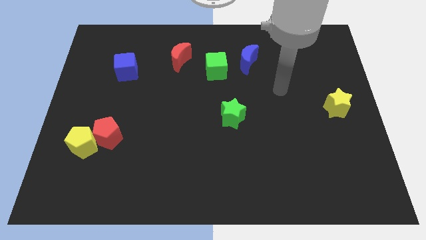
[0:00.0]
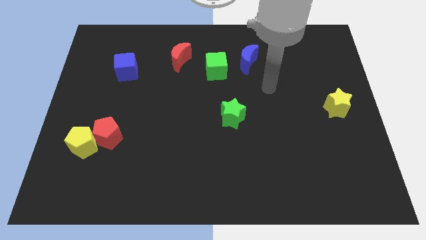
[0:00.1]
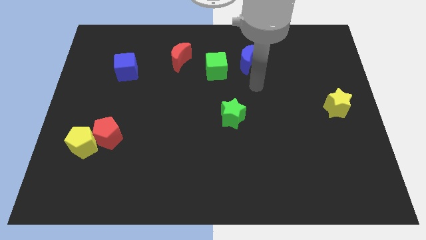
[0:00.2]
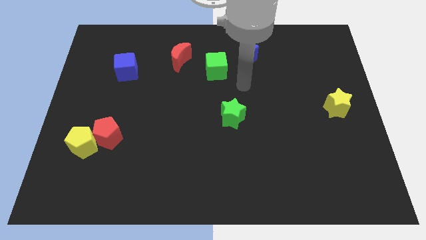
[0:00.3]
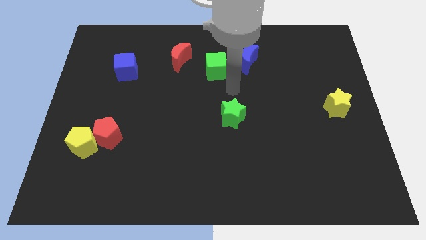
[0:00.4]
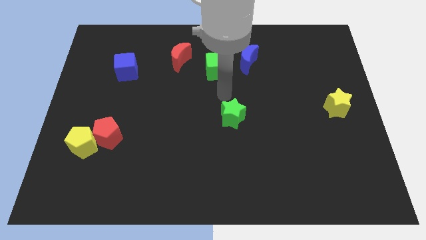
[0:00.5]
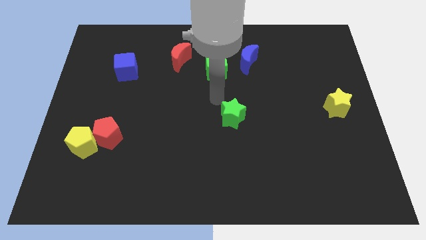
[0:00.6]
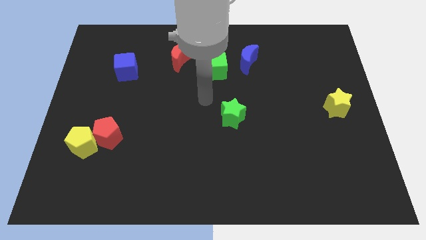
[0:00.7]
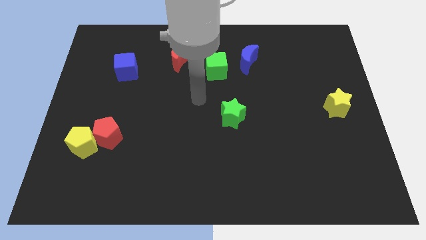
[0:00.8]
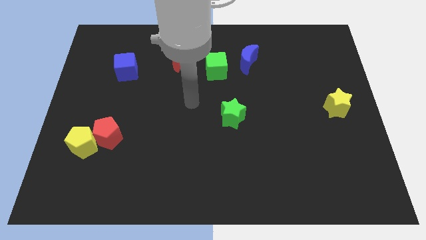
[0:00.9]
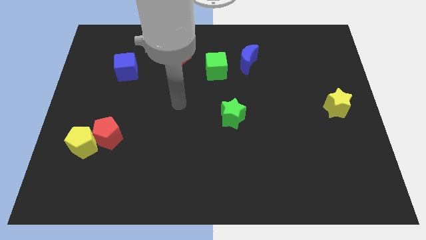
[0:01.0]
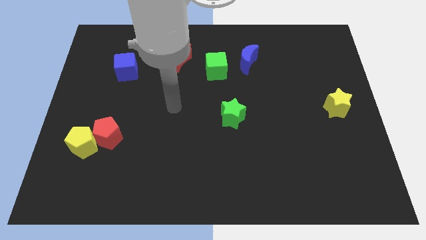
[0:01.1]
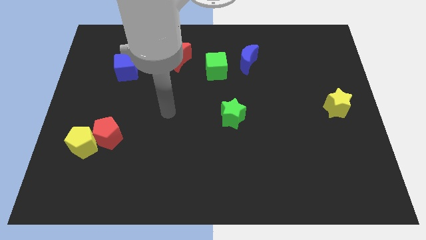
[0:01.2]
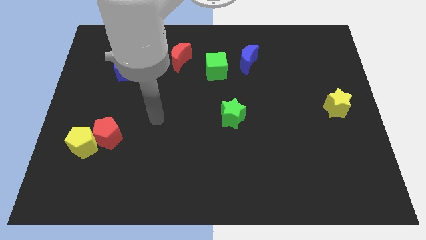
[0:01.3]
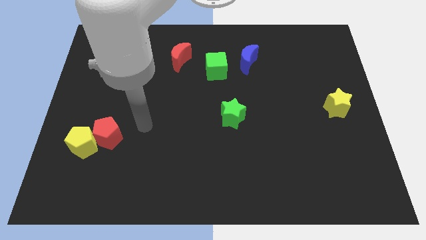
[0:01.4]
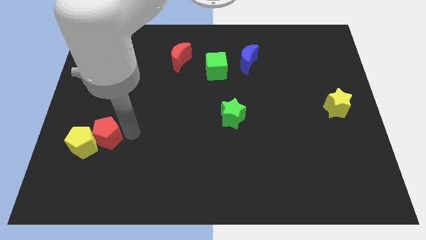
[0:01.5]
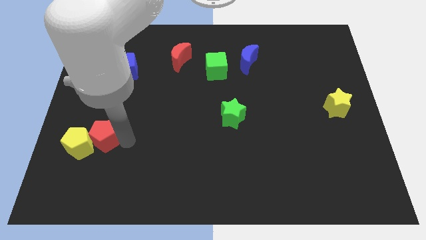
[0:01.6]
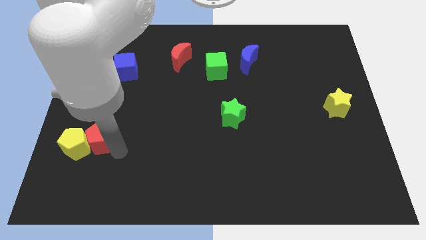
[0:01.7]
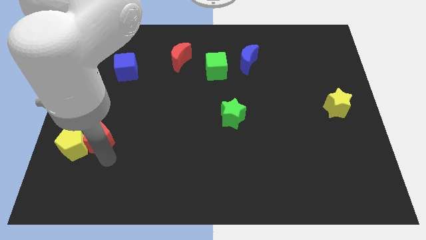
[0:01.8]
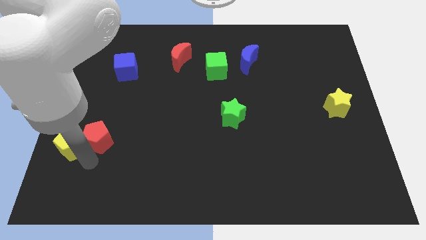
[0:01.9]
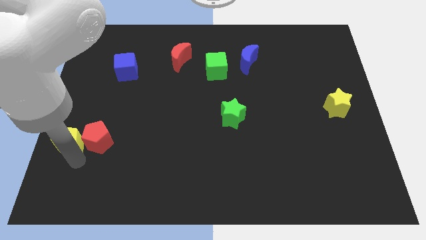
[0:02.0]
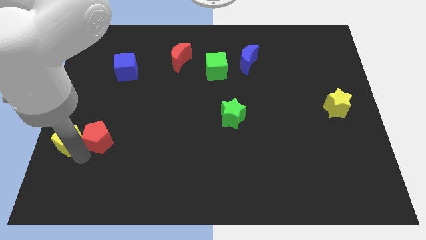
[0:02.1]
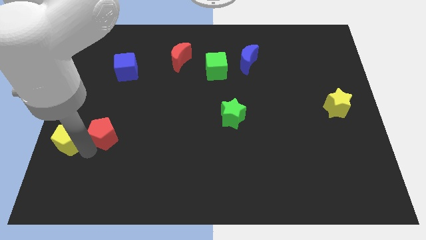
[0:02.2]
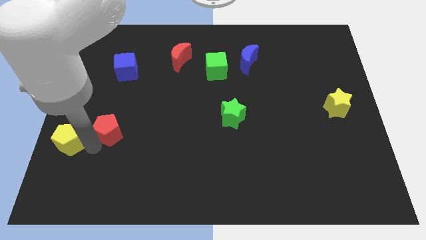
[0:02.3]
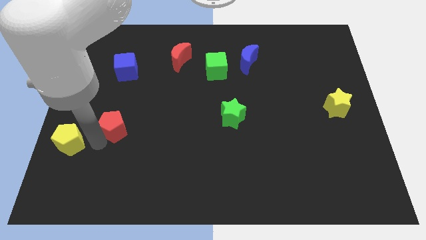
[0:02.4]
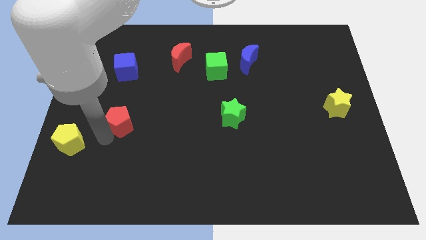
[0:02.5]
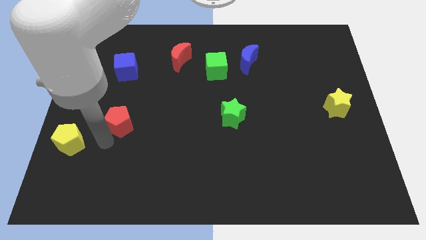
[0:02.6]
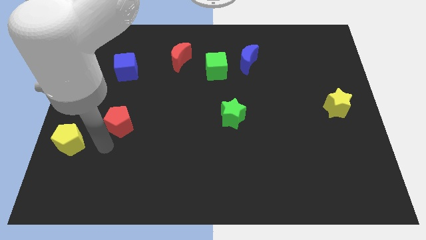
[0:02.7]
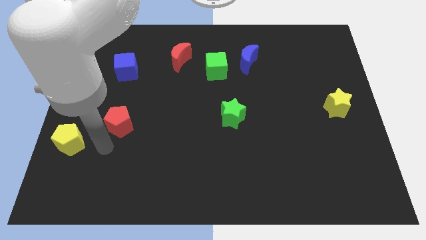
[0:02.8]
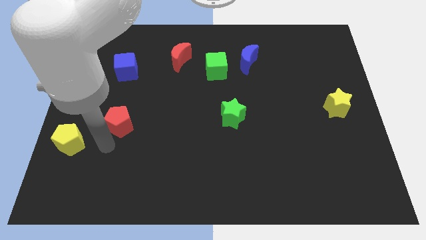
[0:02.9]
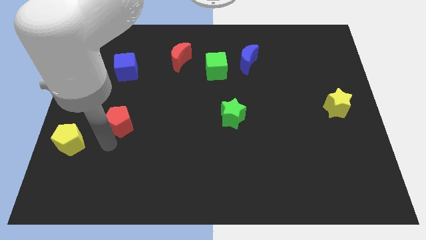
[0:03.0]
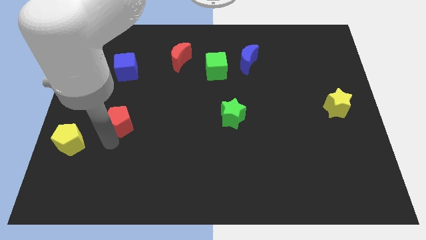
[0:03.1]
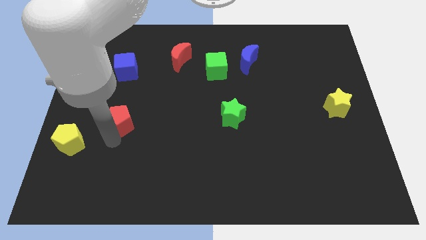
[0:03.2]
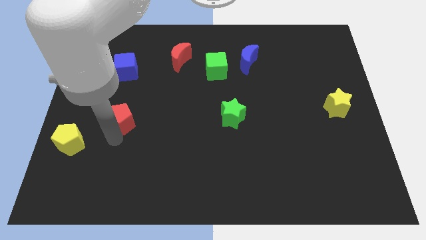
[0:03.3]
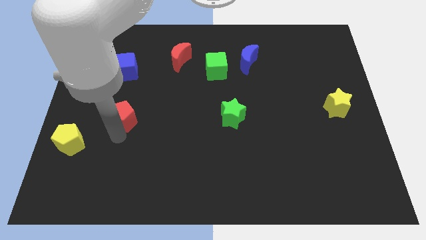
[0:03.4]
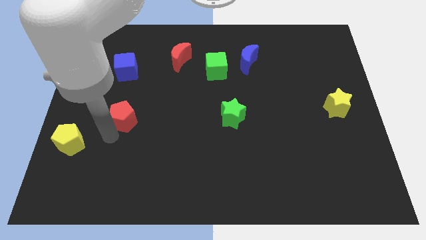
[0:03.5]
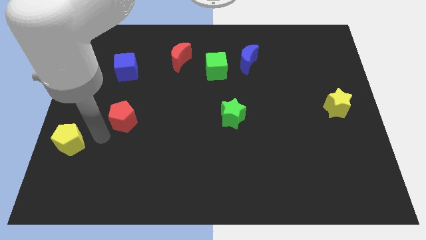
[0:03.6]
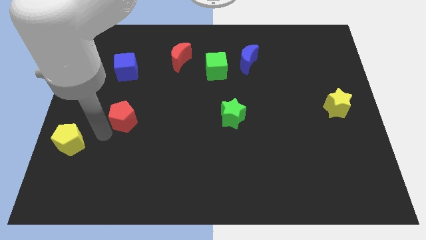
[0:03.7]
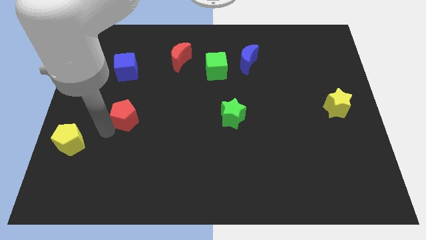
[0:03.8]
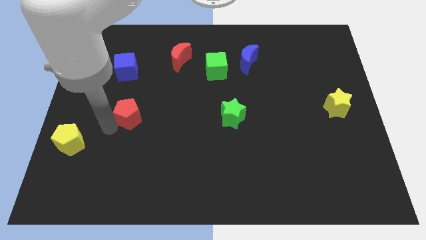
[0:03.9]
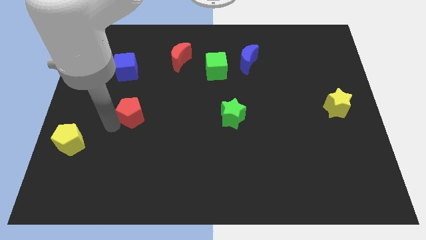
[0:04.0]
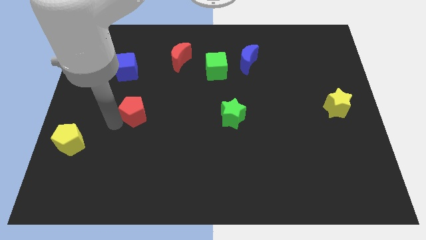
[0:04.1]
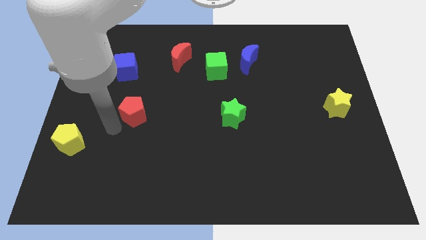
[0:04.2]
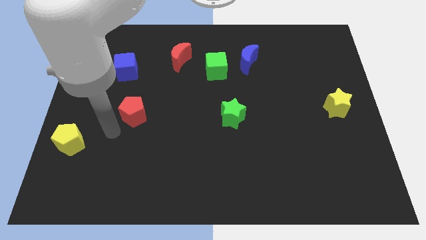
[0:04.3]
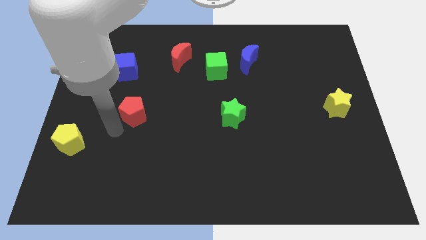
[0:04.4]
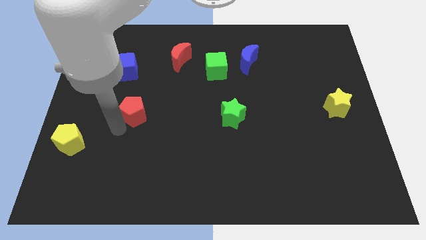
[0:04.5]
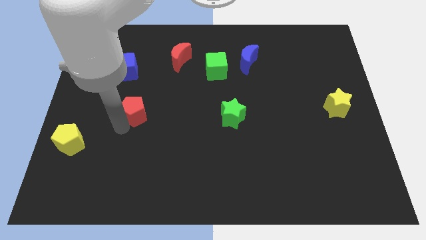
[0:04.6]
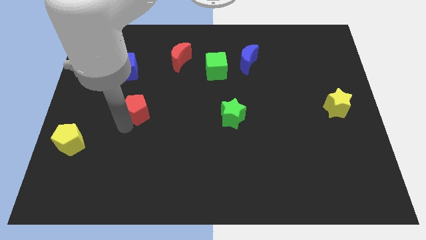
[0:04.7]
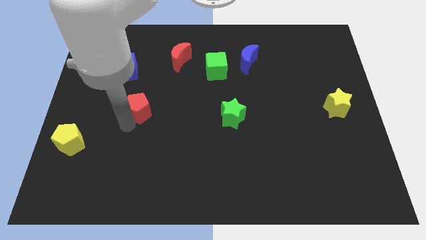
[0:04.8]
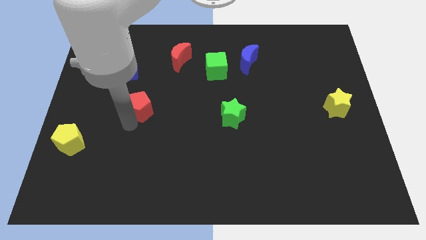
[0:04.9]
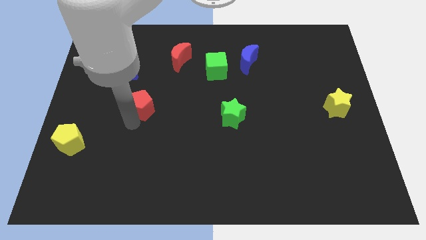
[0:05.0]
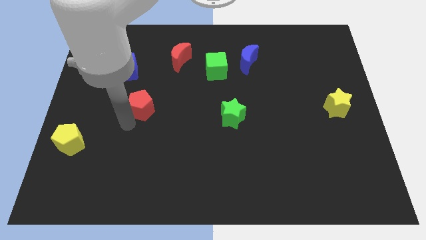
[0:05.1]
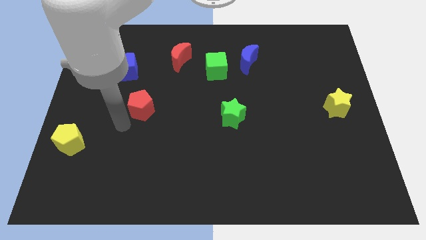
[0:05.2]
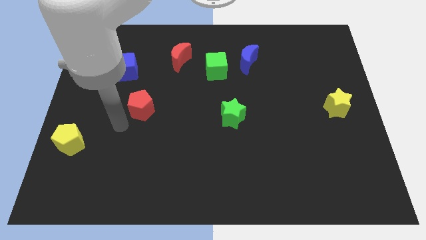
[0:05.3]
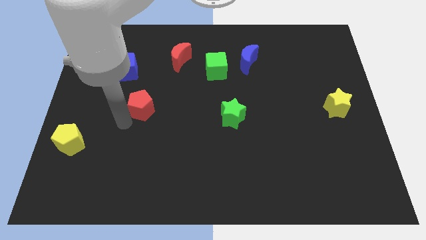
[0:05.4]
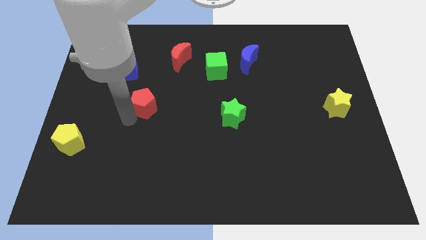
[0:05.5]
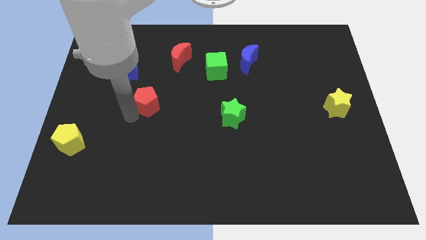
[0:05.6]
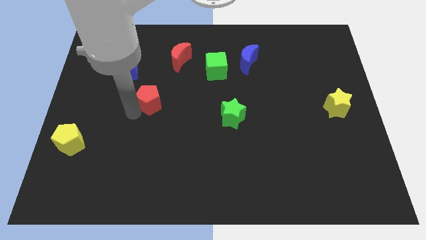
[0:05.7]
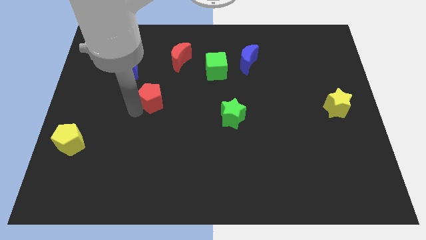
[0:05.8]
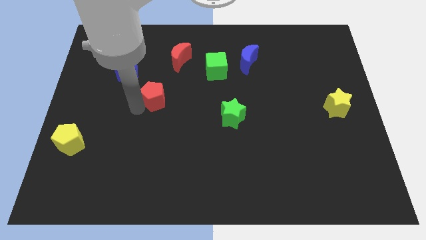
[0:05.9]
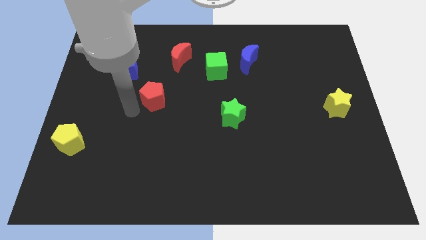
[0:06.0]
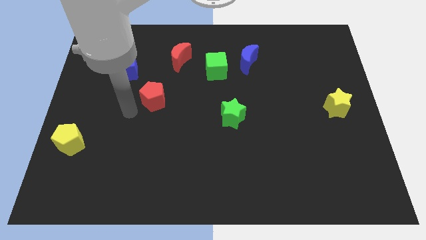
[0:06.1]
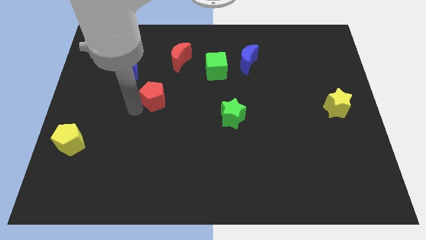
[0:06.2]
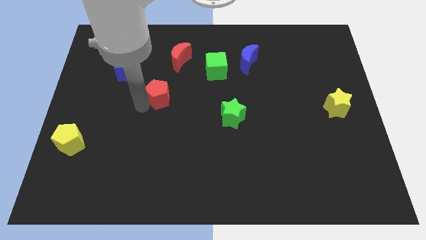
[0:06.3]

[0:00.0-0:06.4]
slide the red pentagon to the bottom side of the red moon

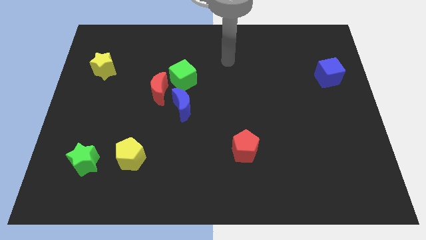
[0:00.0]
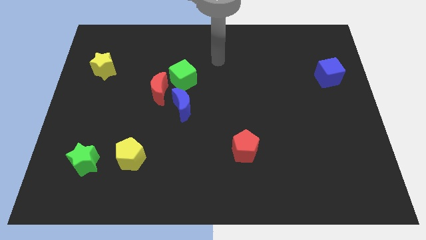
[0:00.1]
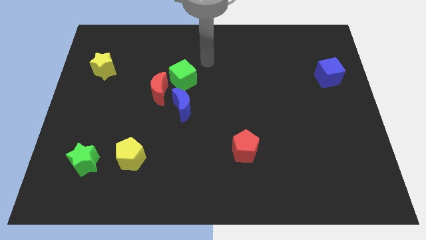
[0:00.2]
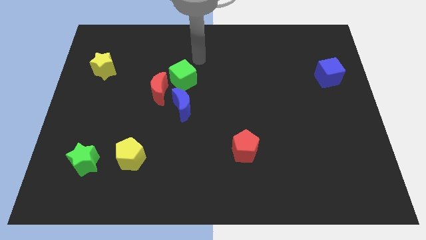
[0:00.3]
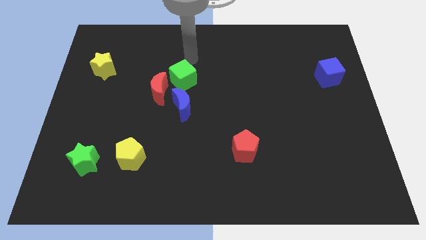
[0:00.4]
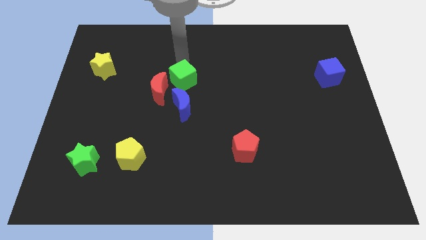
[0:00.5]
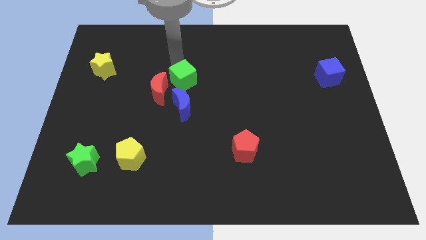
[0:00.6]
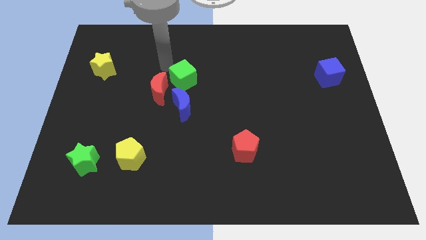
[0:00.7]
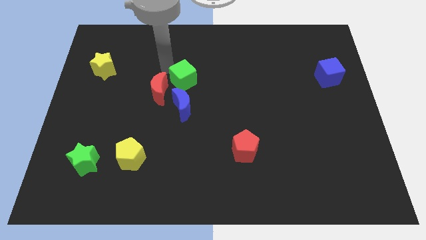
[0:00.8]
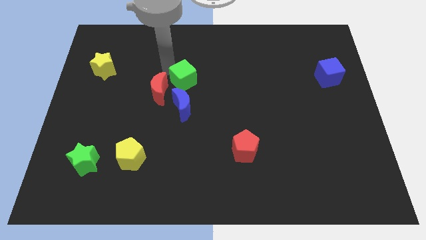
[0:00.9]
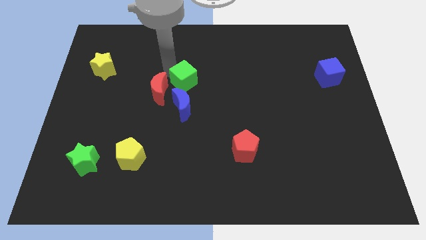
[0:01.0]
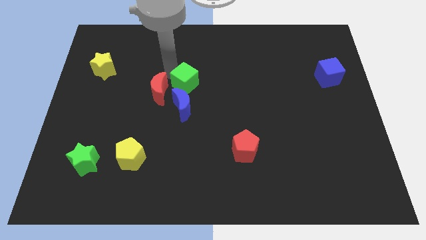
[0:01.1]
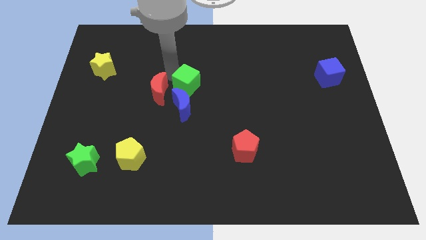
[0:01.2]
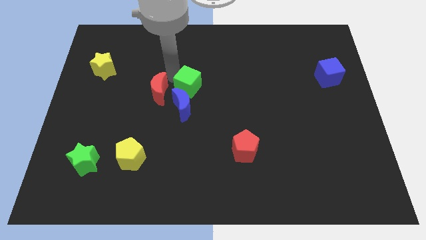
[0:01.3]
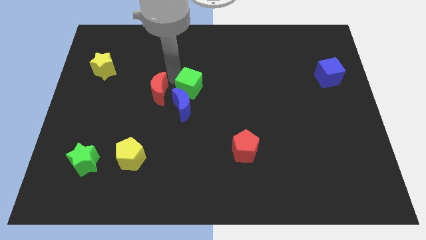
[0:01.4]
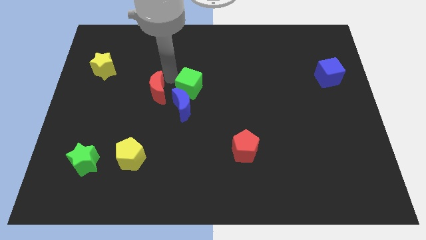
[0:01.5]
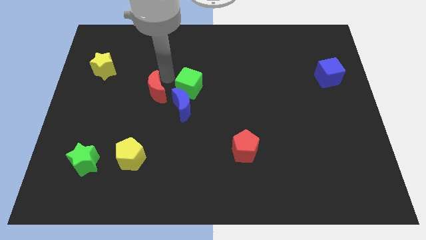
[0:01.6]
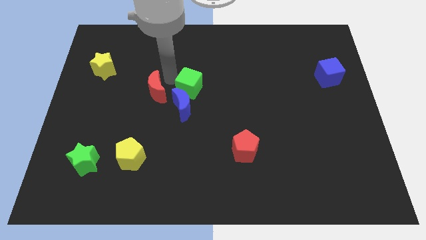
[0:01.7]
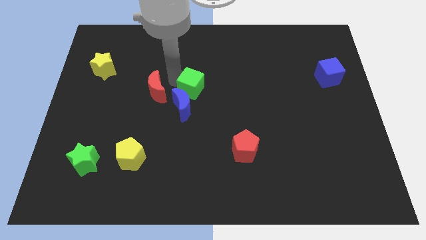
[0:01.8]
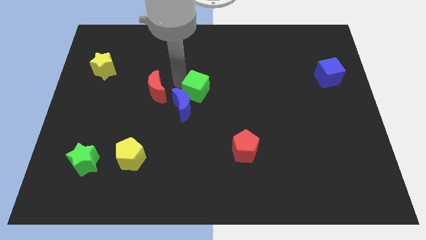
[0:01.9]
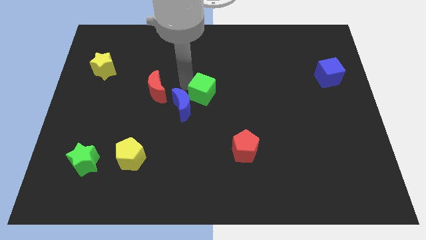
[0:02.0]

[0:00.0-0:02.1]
push the green cube just right of the blue moon
